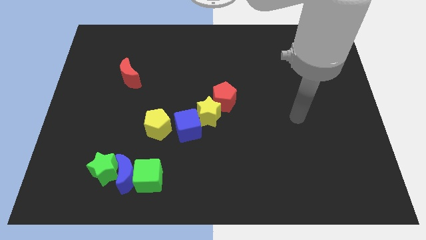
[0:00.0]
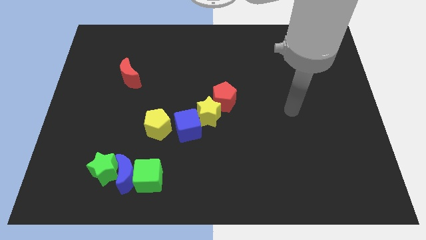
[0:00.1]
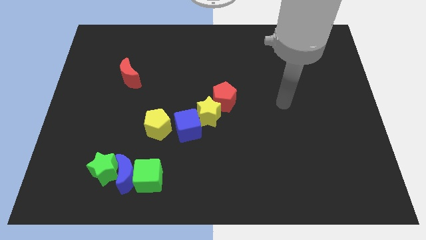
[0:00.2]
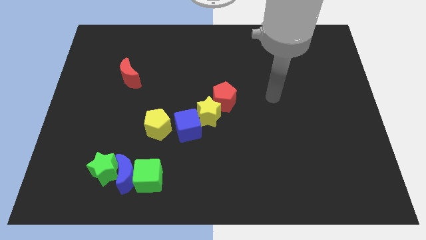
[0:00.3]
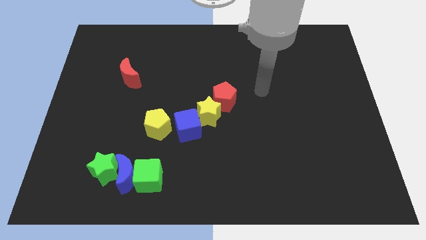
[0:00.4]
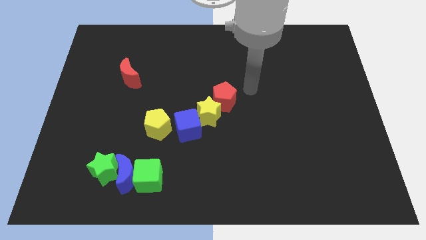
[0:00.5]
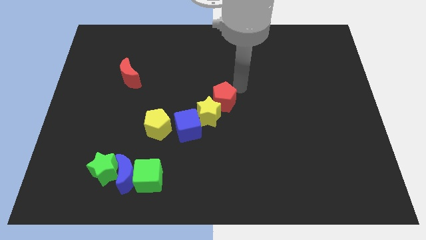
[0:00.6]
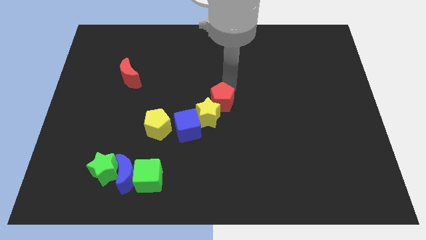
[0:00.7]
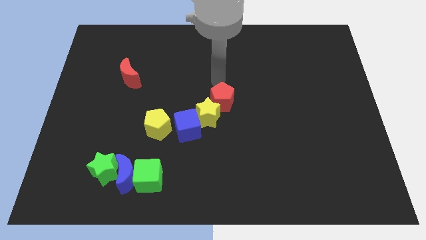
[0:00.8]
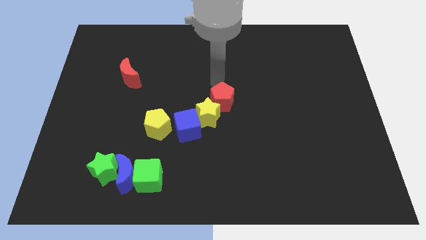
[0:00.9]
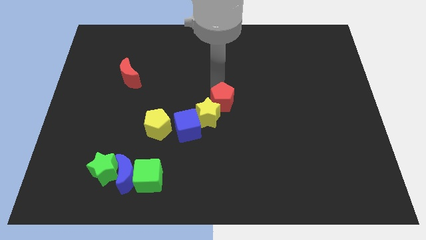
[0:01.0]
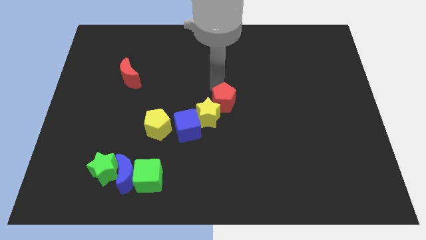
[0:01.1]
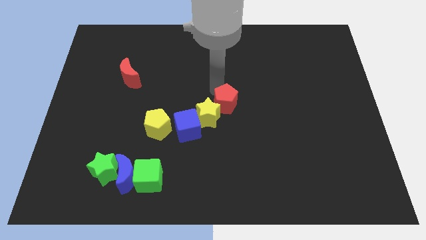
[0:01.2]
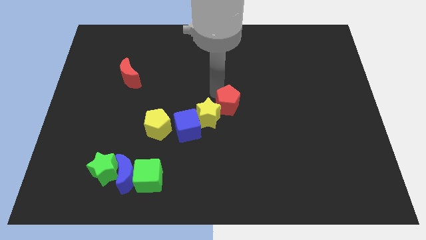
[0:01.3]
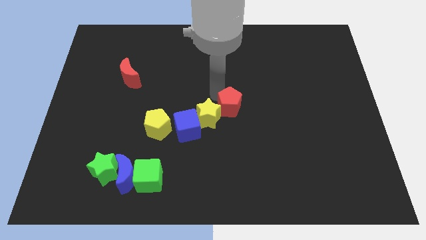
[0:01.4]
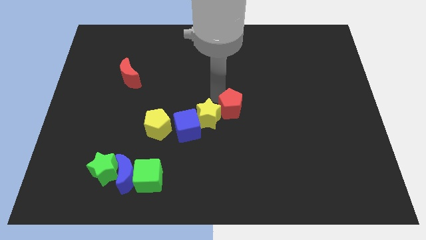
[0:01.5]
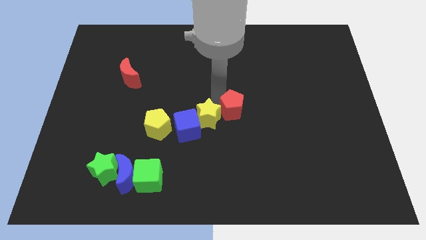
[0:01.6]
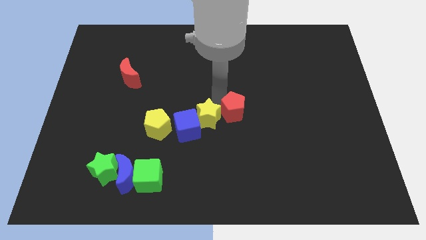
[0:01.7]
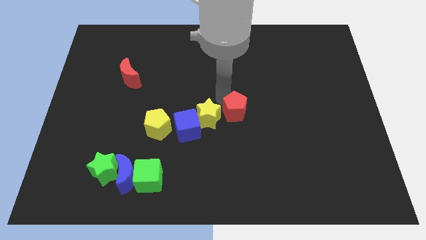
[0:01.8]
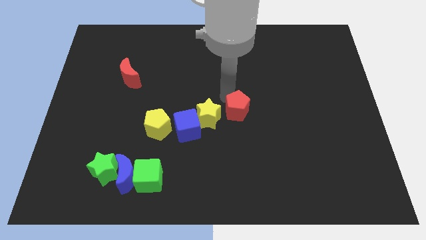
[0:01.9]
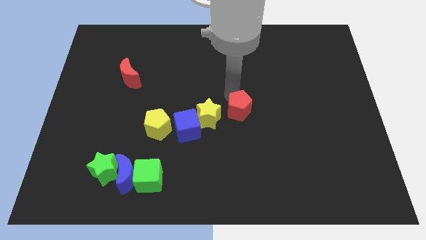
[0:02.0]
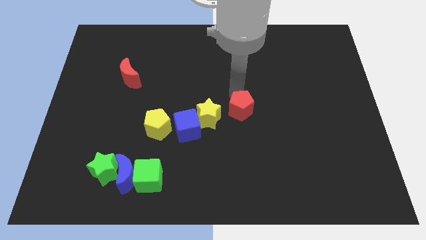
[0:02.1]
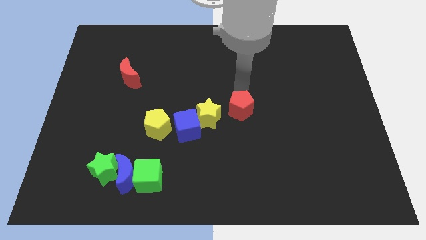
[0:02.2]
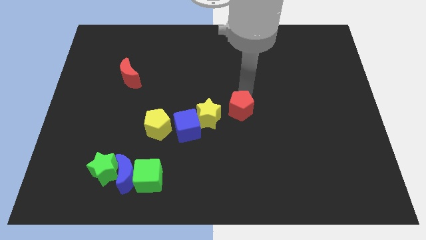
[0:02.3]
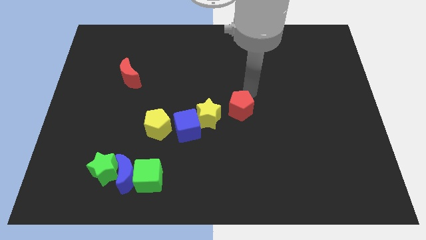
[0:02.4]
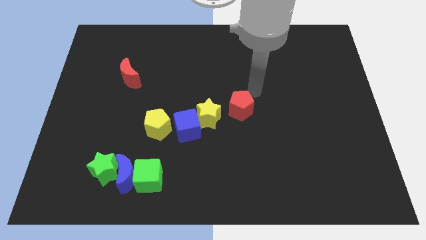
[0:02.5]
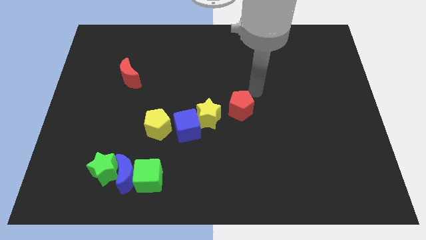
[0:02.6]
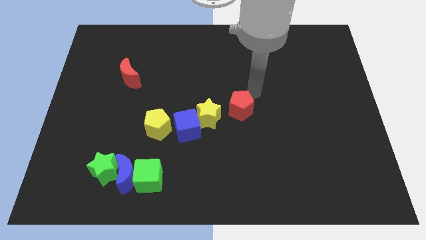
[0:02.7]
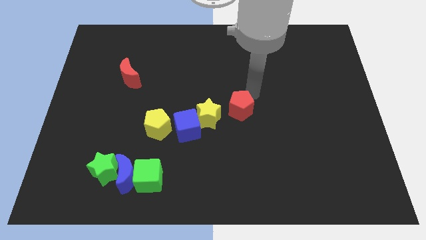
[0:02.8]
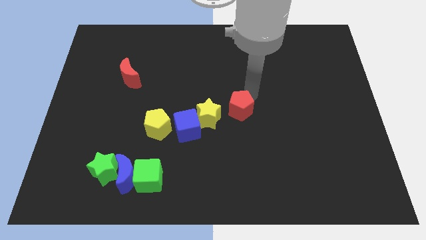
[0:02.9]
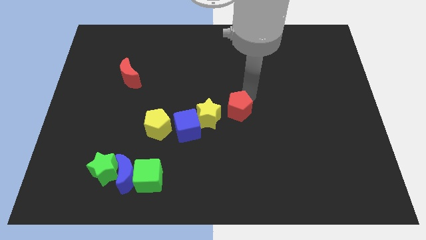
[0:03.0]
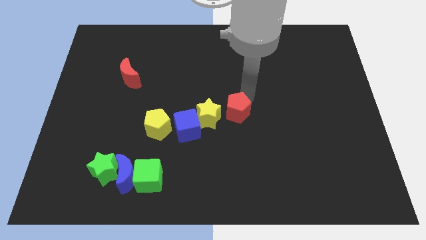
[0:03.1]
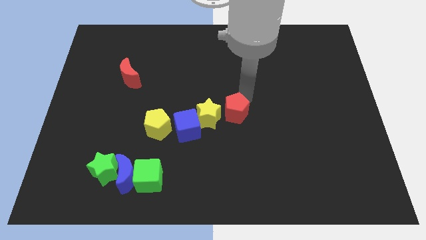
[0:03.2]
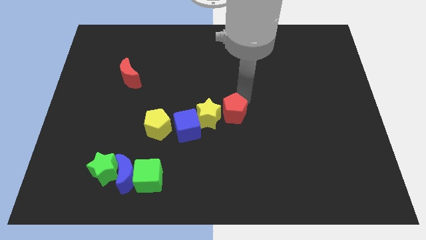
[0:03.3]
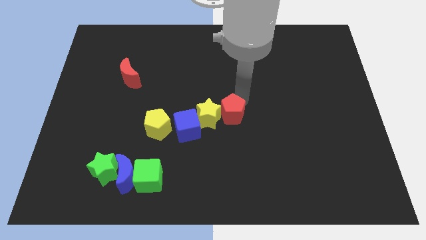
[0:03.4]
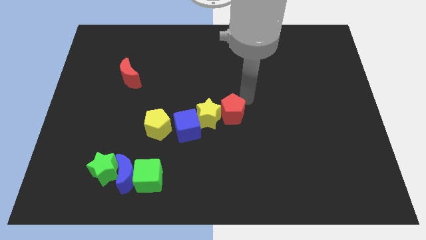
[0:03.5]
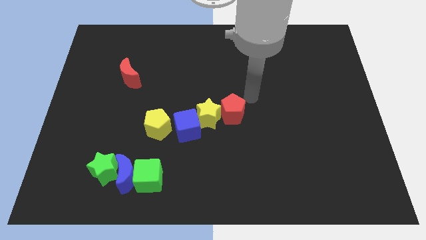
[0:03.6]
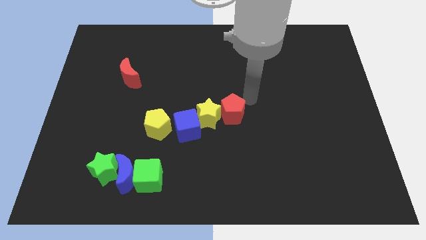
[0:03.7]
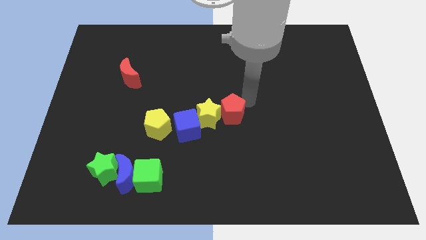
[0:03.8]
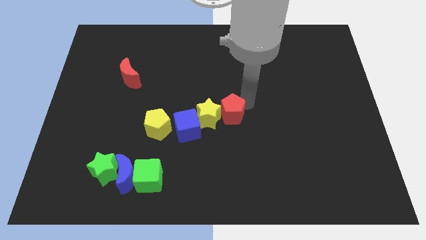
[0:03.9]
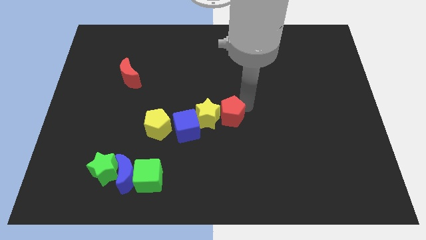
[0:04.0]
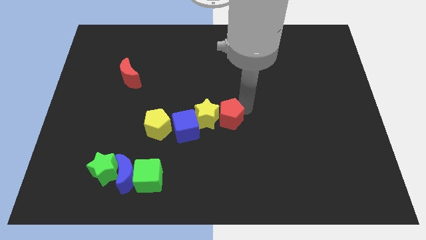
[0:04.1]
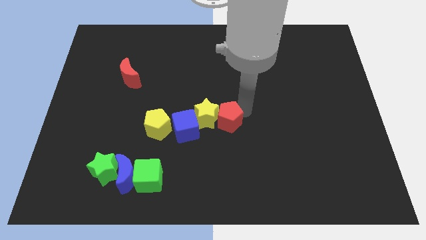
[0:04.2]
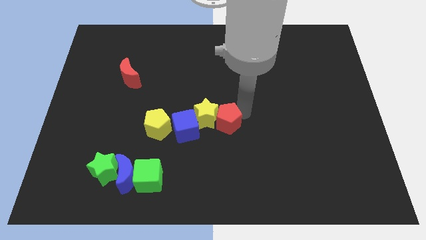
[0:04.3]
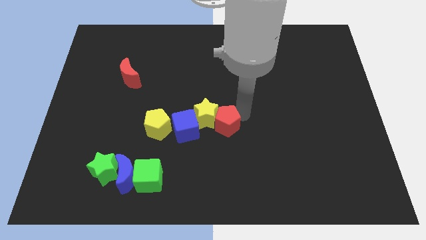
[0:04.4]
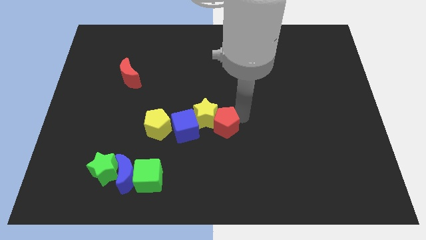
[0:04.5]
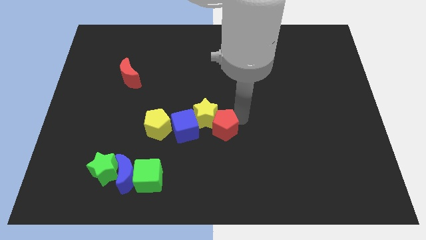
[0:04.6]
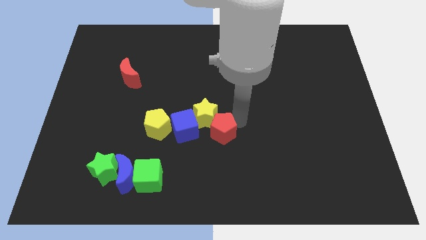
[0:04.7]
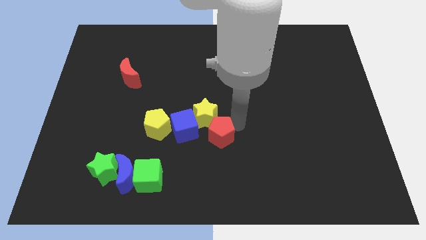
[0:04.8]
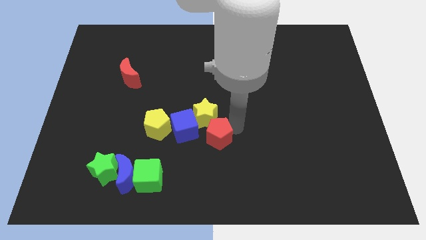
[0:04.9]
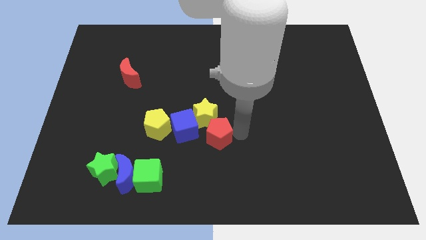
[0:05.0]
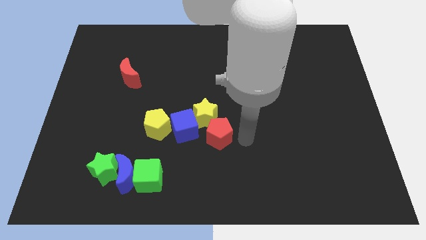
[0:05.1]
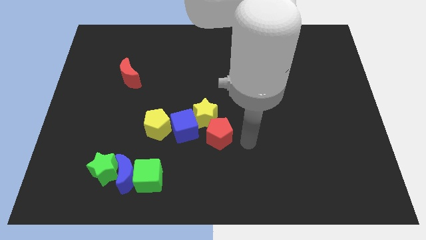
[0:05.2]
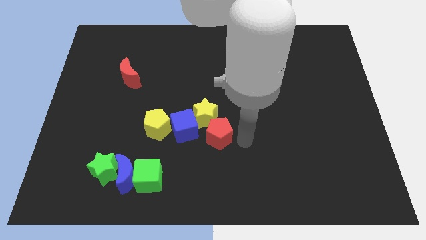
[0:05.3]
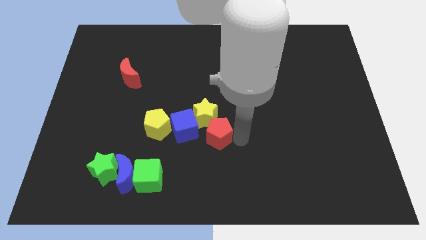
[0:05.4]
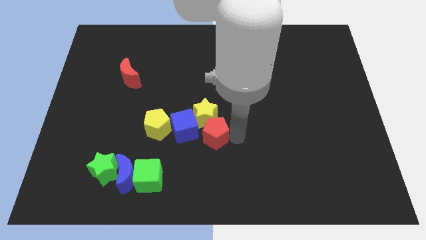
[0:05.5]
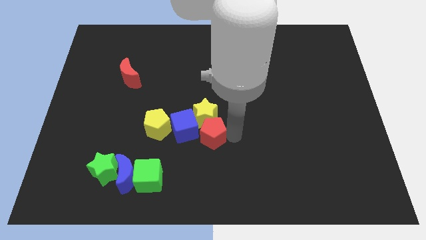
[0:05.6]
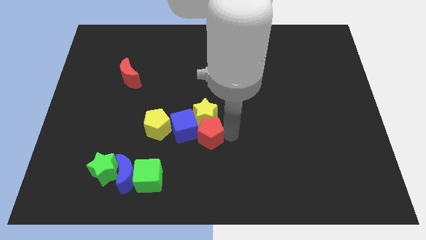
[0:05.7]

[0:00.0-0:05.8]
move the red pentagon towards the blue cube

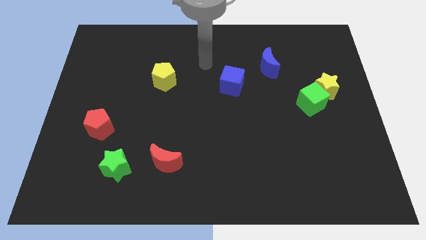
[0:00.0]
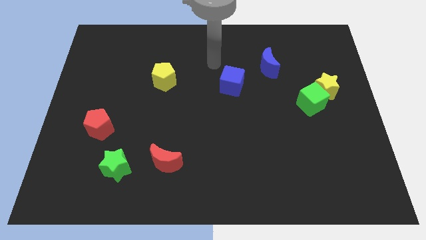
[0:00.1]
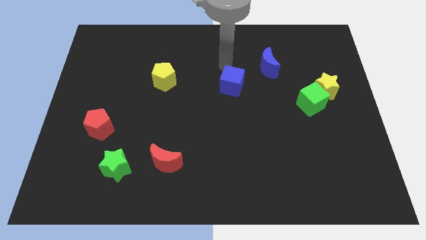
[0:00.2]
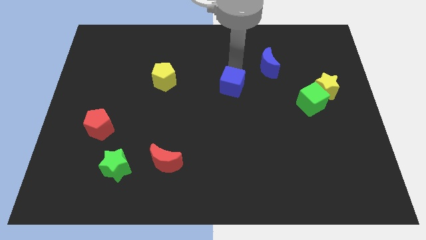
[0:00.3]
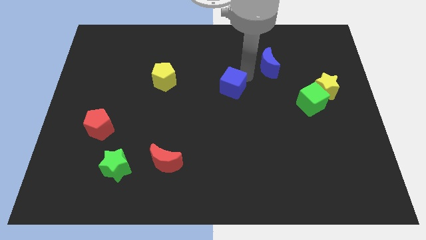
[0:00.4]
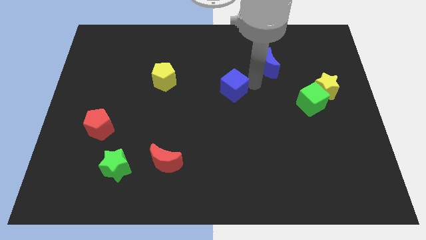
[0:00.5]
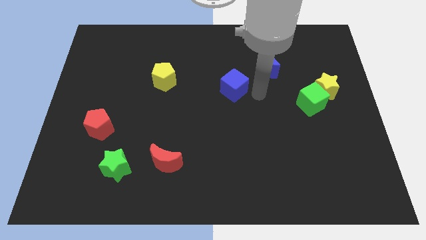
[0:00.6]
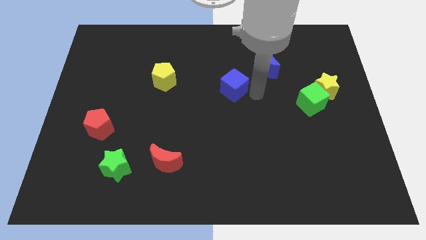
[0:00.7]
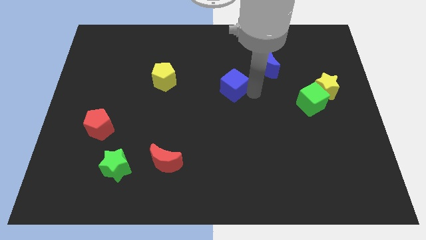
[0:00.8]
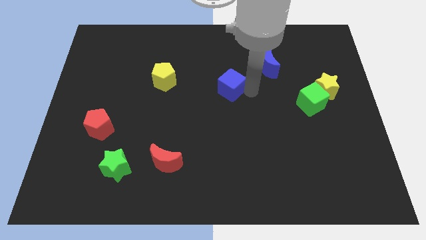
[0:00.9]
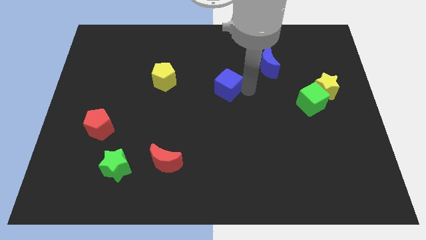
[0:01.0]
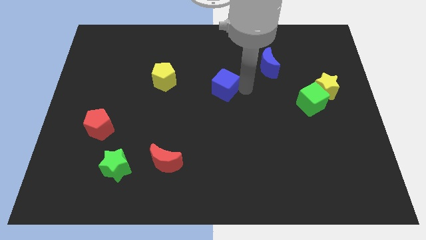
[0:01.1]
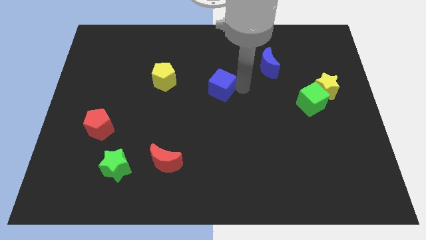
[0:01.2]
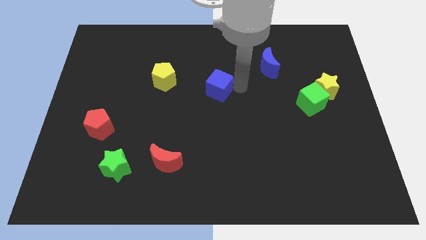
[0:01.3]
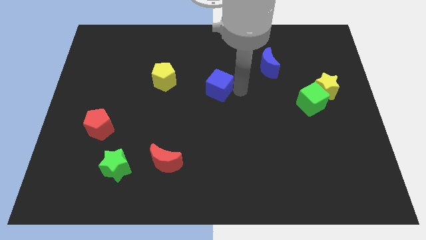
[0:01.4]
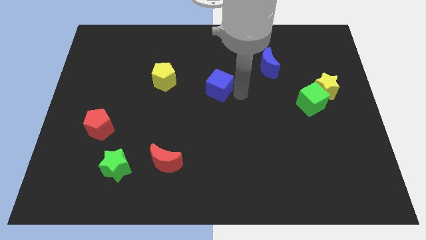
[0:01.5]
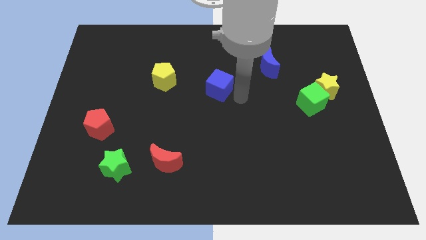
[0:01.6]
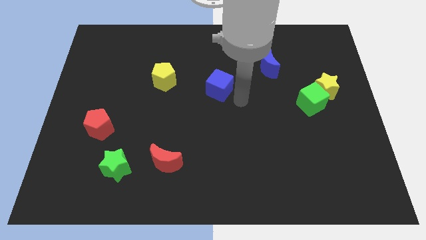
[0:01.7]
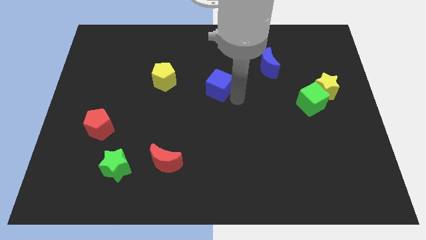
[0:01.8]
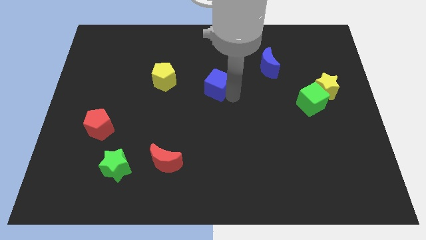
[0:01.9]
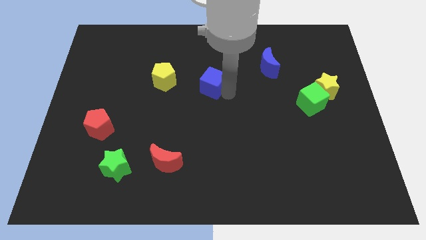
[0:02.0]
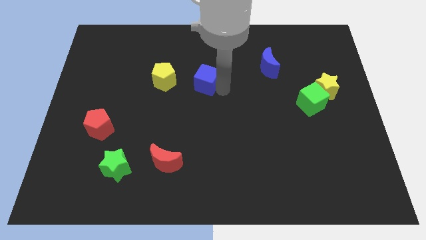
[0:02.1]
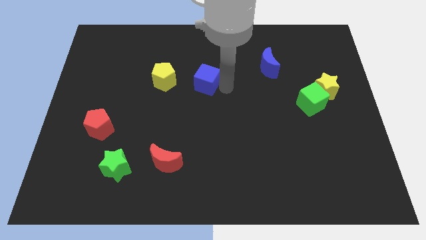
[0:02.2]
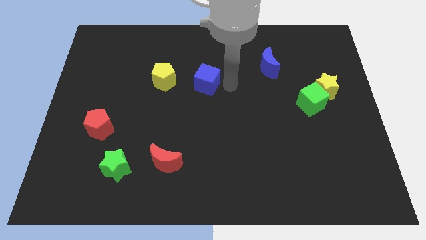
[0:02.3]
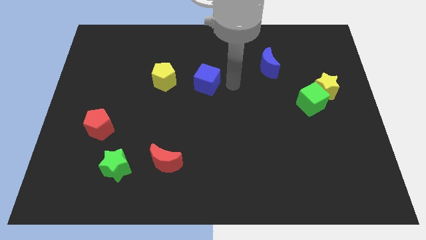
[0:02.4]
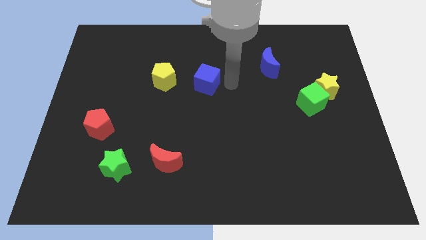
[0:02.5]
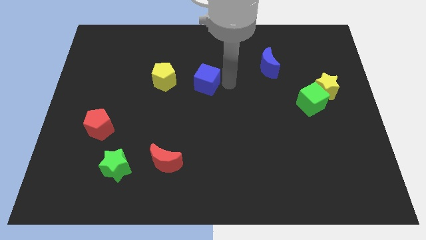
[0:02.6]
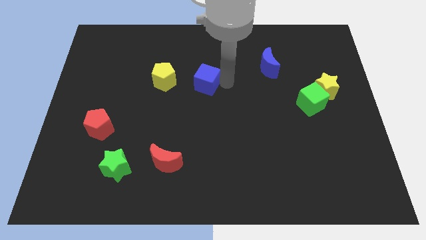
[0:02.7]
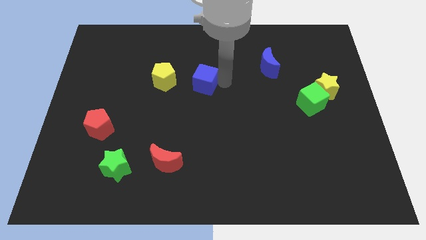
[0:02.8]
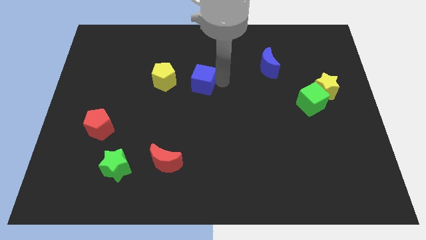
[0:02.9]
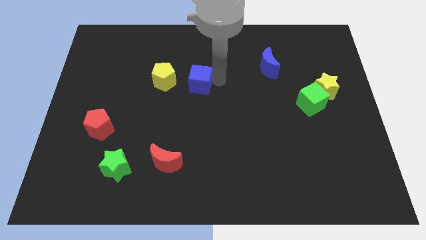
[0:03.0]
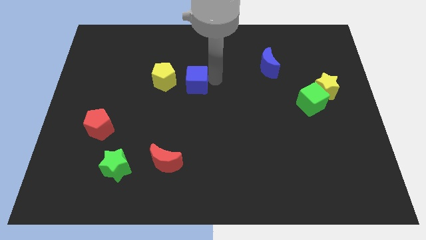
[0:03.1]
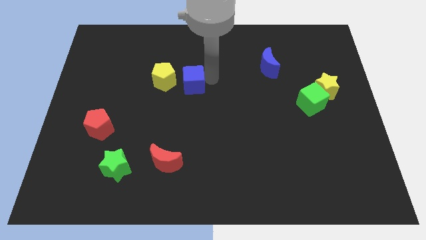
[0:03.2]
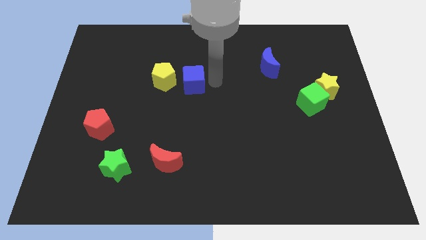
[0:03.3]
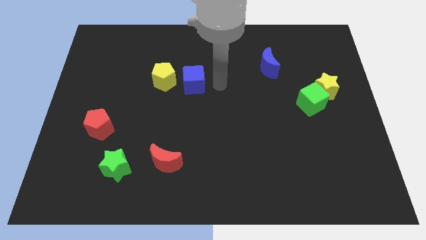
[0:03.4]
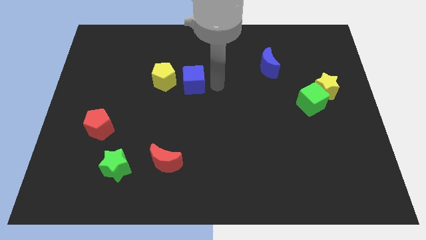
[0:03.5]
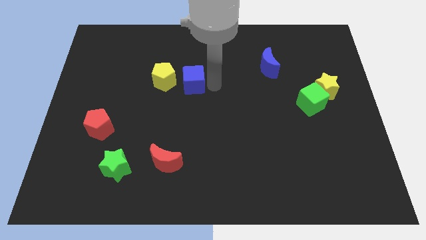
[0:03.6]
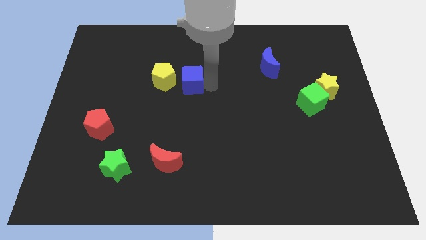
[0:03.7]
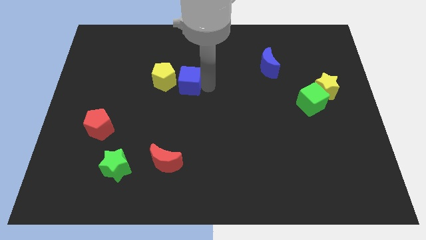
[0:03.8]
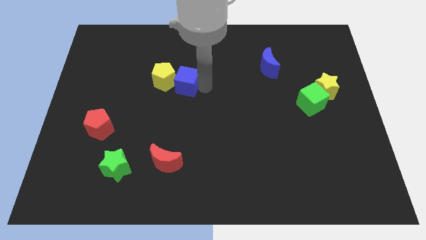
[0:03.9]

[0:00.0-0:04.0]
put the blue cube close to the yellow pentagon
